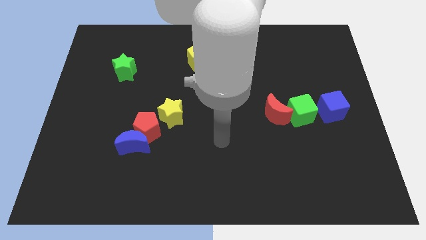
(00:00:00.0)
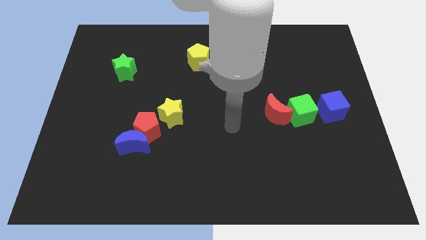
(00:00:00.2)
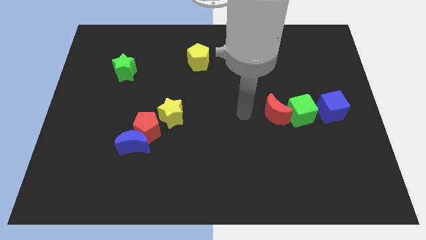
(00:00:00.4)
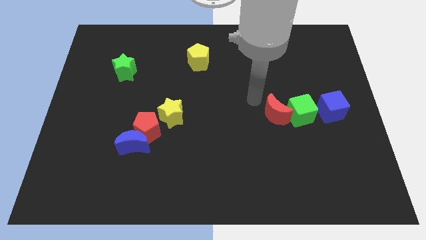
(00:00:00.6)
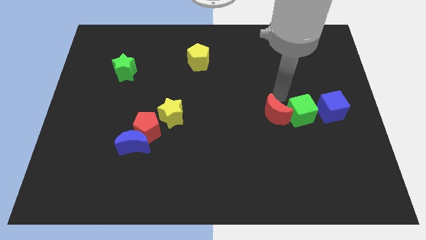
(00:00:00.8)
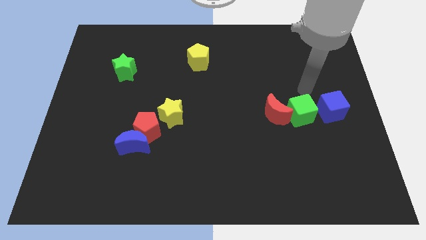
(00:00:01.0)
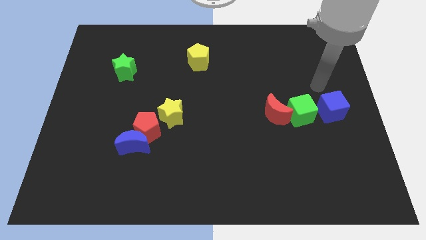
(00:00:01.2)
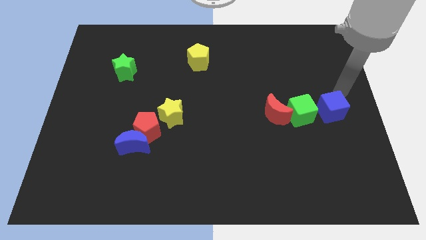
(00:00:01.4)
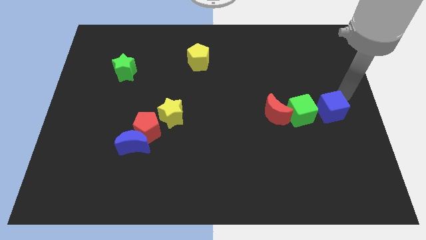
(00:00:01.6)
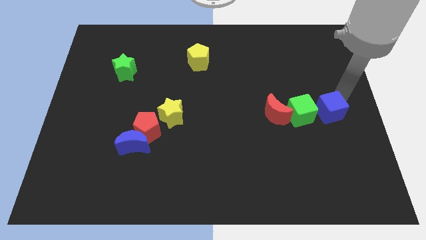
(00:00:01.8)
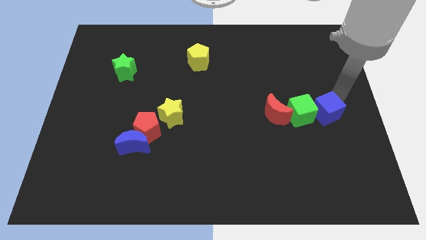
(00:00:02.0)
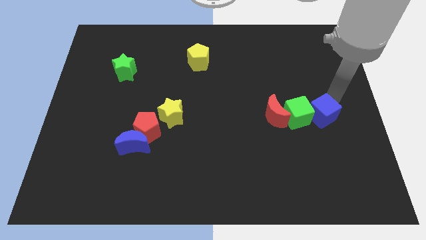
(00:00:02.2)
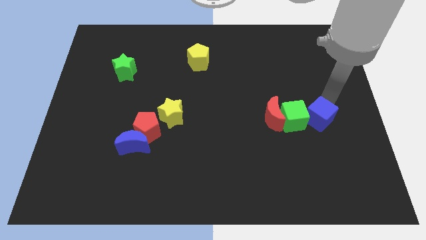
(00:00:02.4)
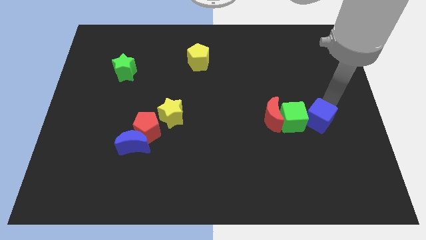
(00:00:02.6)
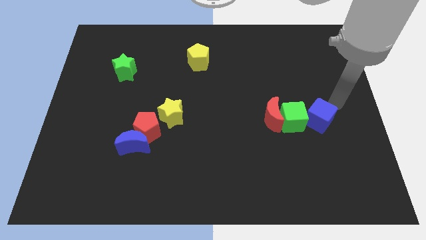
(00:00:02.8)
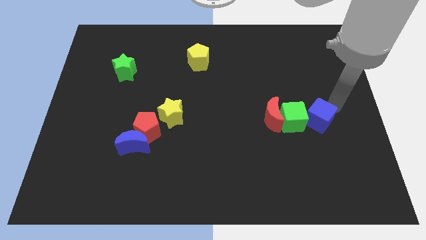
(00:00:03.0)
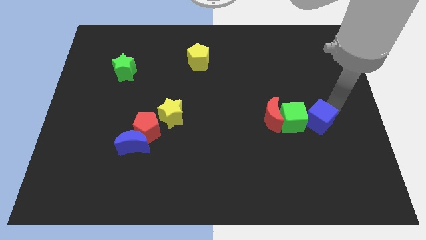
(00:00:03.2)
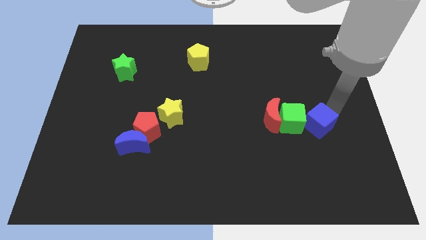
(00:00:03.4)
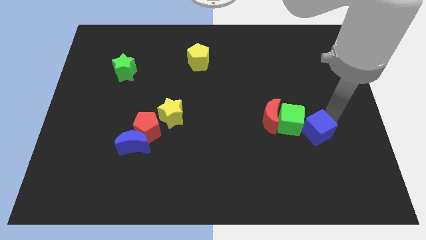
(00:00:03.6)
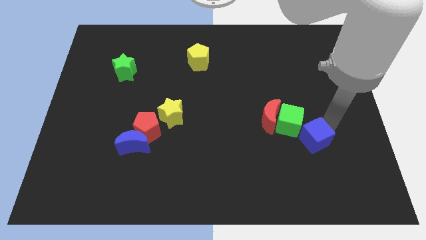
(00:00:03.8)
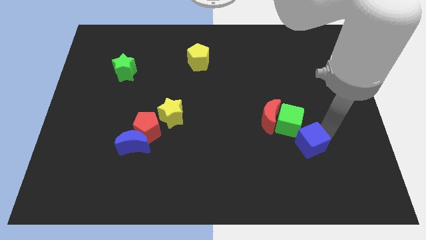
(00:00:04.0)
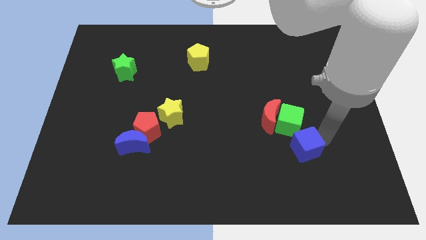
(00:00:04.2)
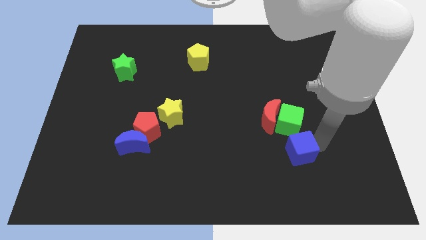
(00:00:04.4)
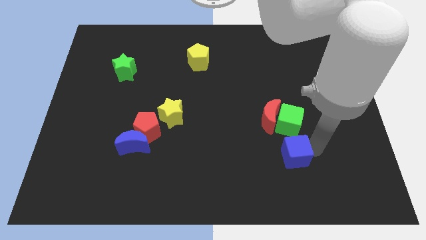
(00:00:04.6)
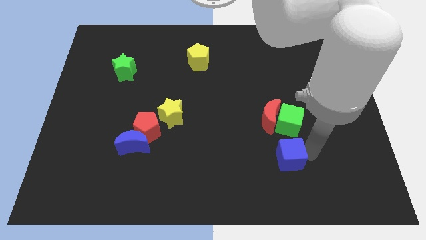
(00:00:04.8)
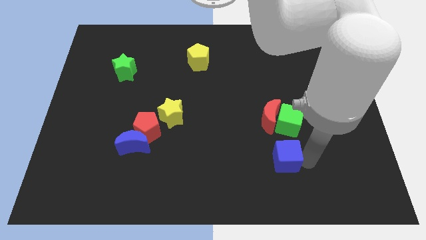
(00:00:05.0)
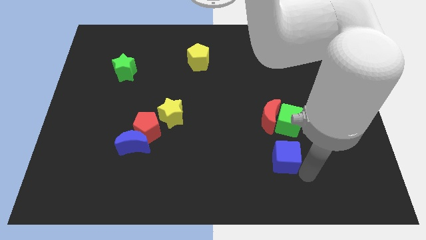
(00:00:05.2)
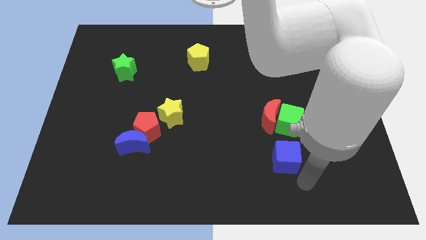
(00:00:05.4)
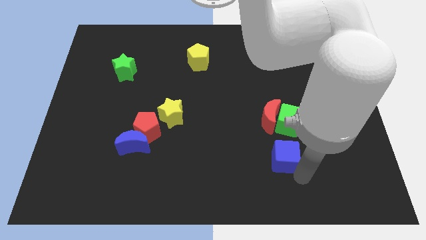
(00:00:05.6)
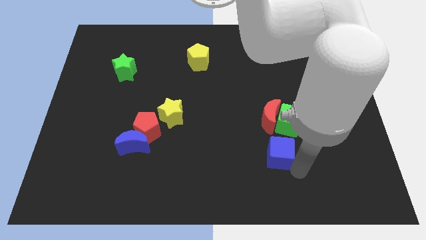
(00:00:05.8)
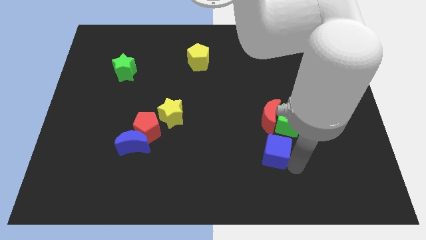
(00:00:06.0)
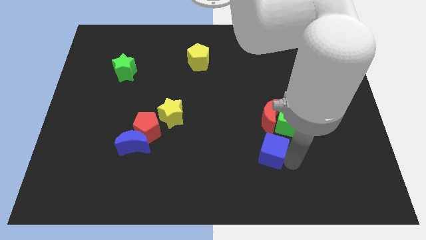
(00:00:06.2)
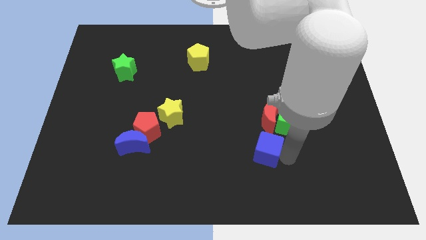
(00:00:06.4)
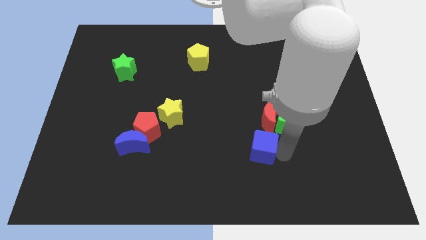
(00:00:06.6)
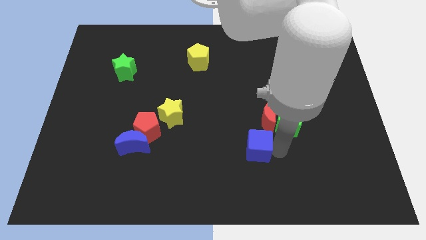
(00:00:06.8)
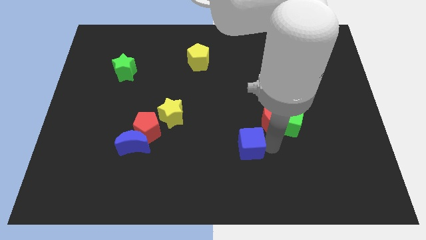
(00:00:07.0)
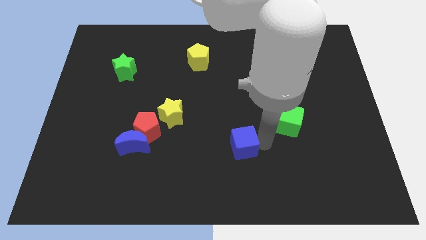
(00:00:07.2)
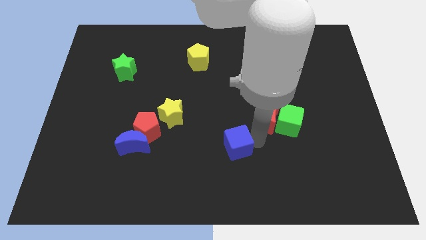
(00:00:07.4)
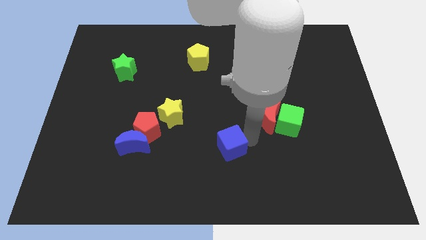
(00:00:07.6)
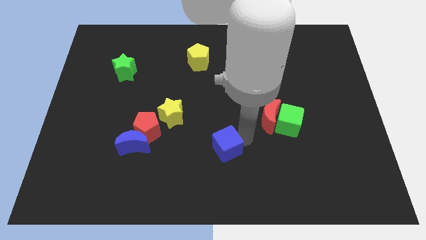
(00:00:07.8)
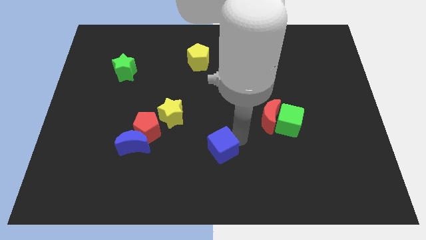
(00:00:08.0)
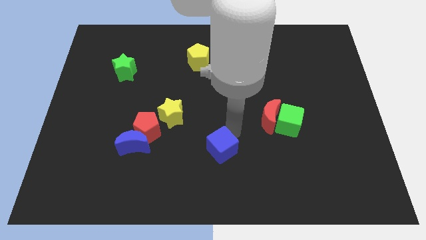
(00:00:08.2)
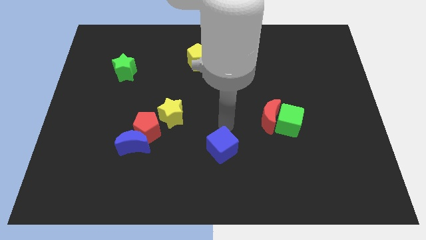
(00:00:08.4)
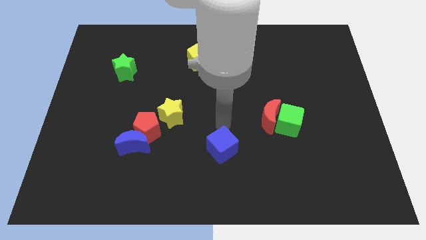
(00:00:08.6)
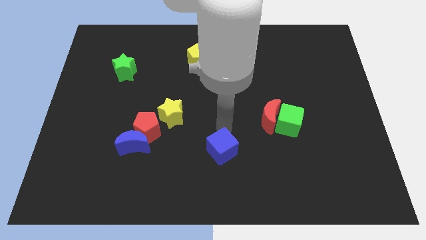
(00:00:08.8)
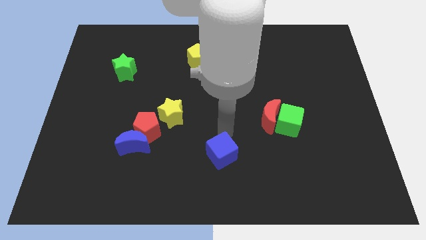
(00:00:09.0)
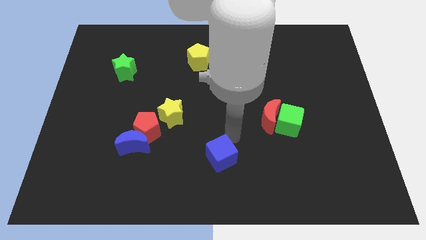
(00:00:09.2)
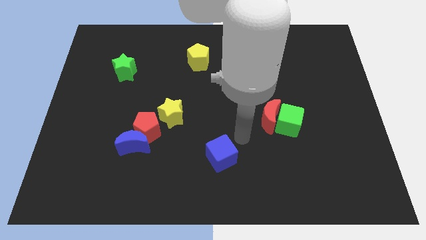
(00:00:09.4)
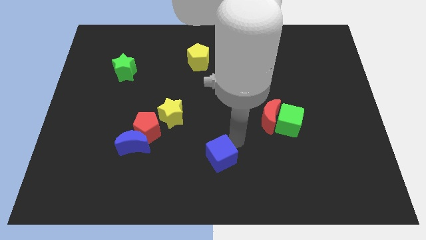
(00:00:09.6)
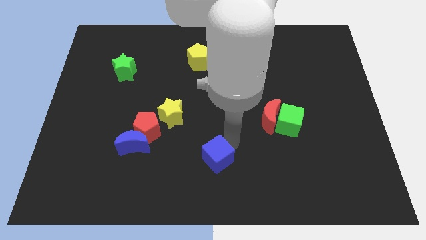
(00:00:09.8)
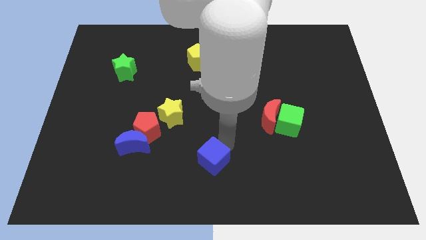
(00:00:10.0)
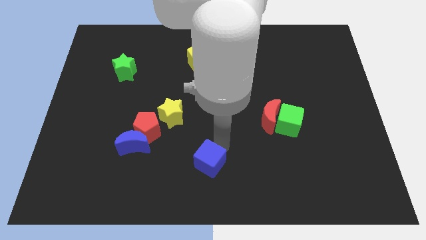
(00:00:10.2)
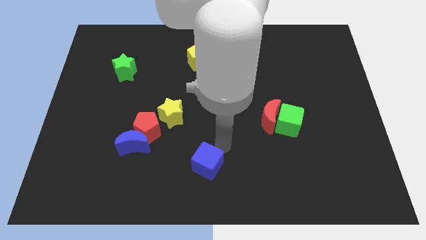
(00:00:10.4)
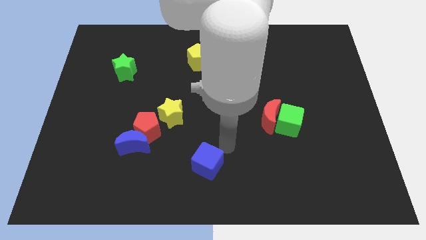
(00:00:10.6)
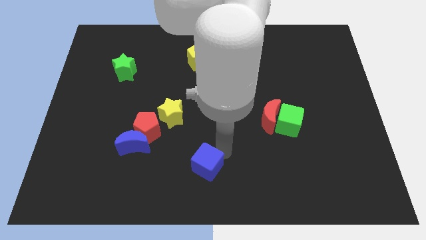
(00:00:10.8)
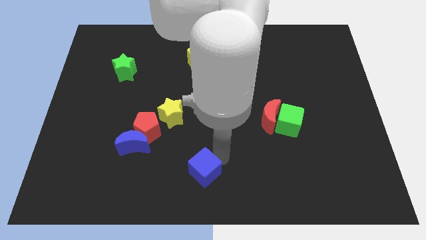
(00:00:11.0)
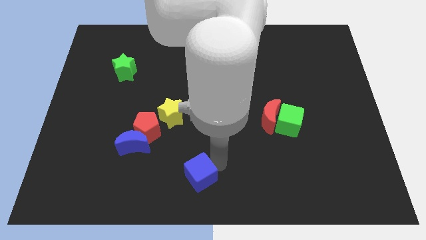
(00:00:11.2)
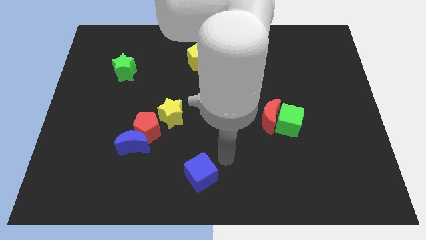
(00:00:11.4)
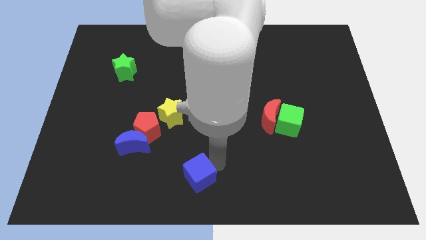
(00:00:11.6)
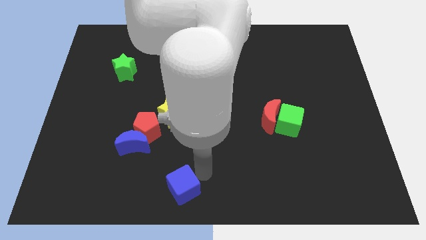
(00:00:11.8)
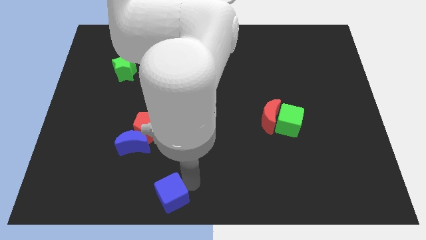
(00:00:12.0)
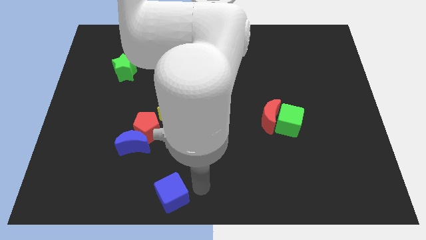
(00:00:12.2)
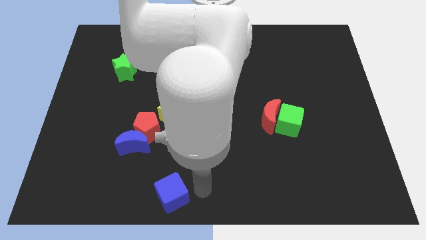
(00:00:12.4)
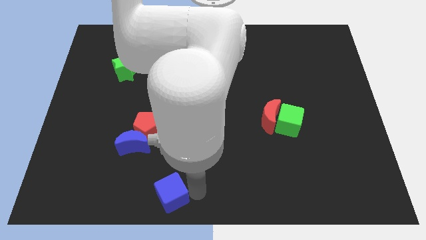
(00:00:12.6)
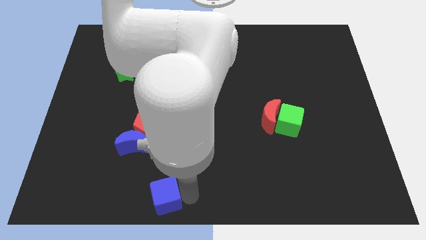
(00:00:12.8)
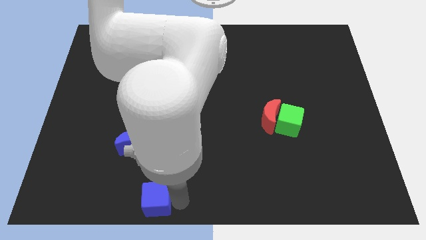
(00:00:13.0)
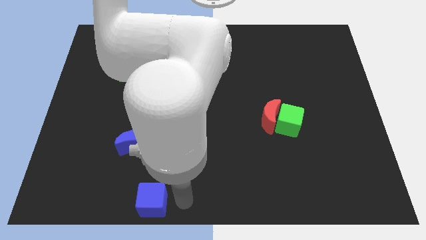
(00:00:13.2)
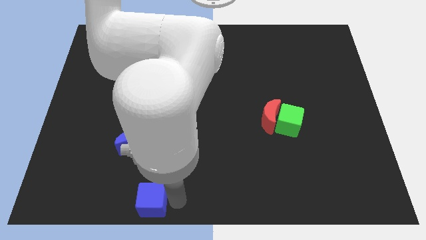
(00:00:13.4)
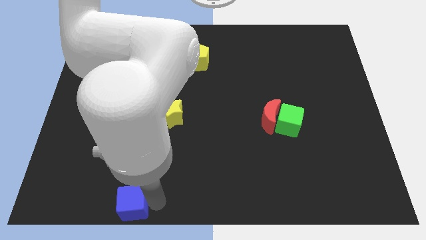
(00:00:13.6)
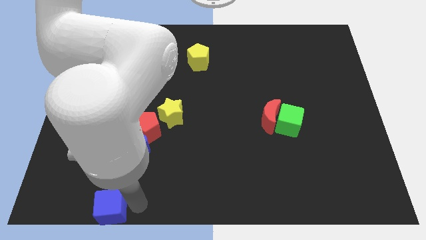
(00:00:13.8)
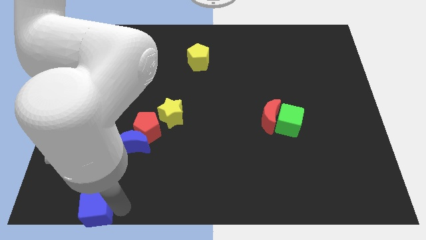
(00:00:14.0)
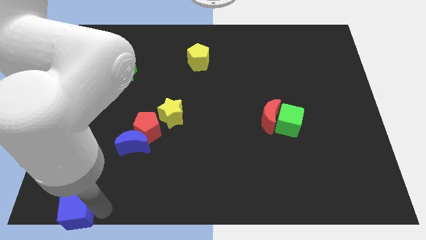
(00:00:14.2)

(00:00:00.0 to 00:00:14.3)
slide the blue cube to the bottom left corner
